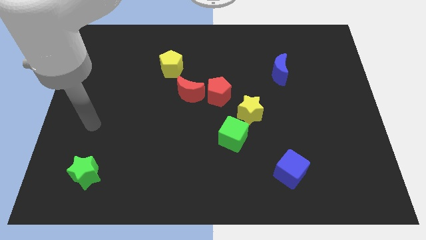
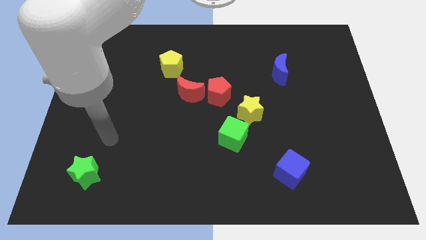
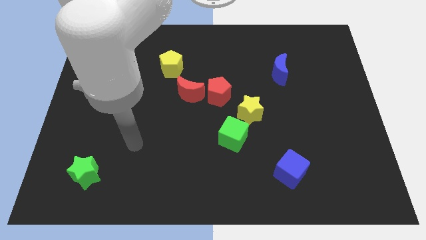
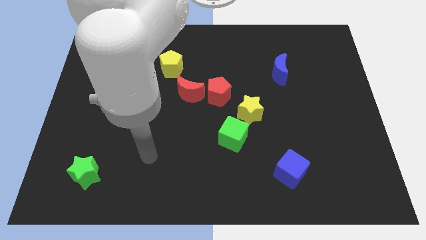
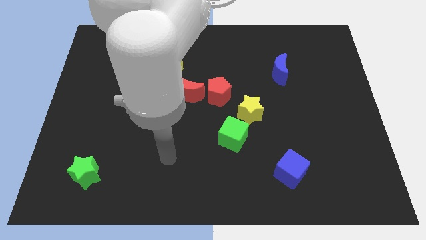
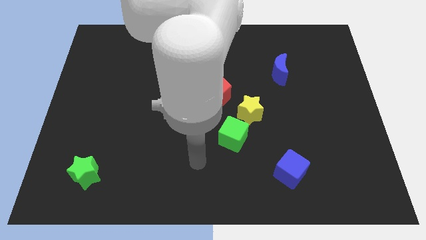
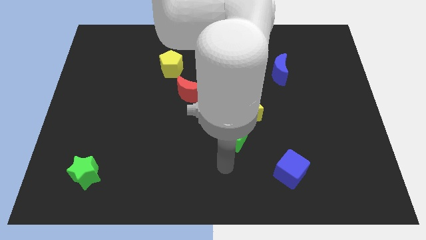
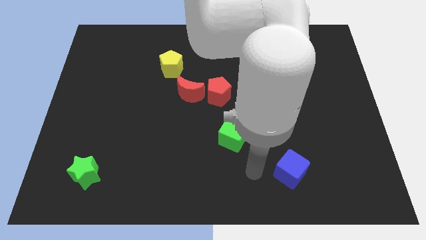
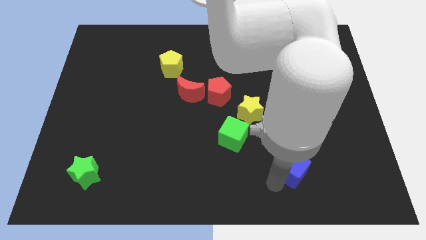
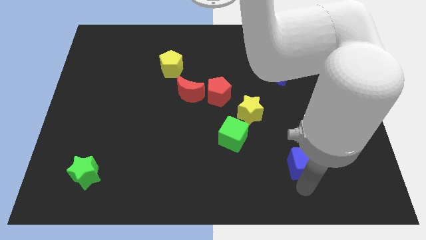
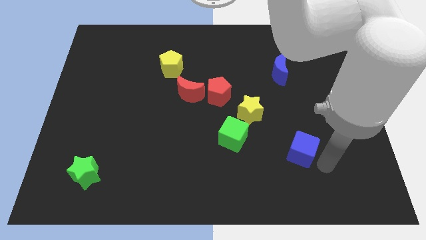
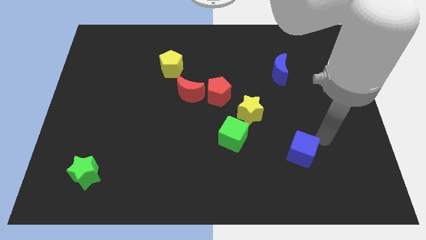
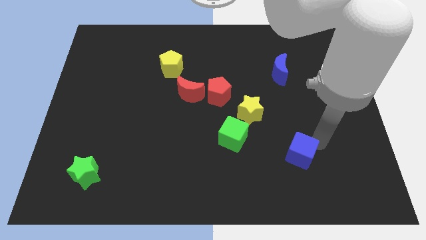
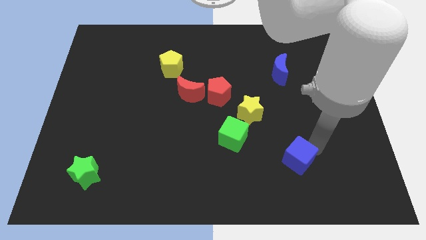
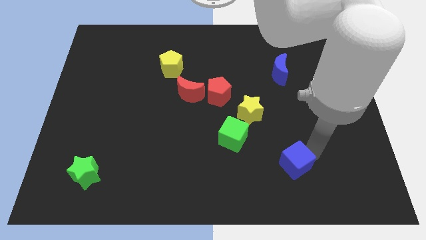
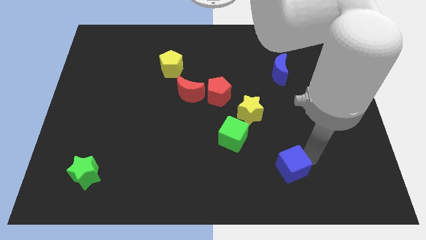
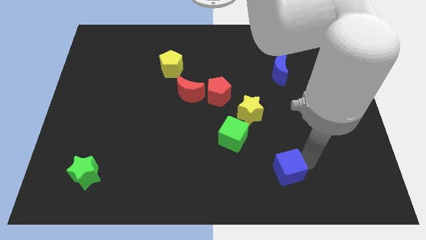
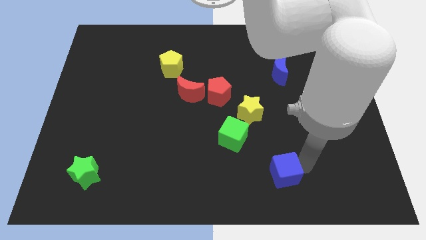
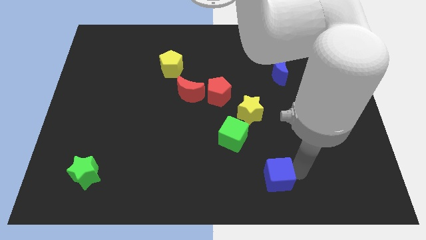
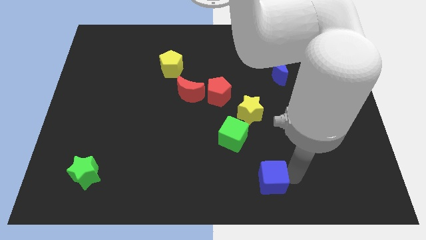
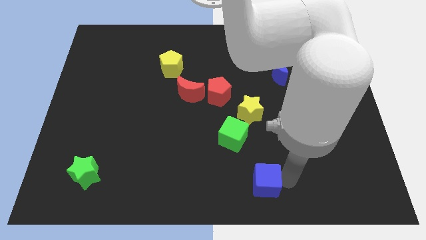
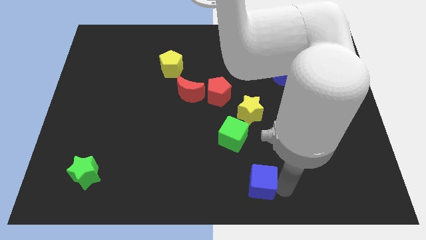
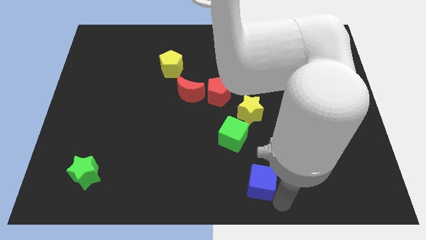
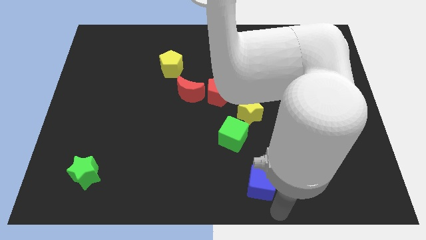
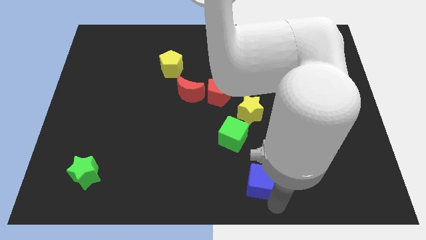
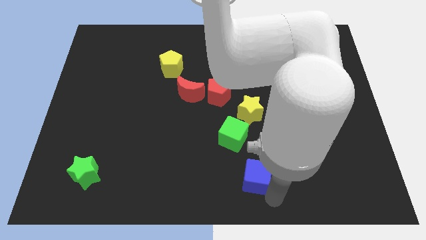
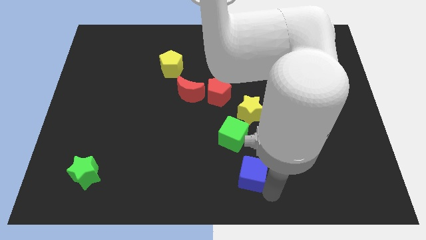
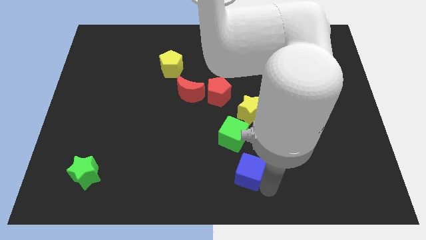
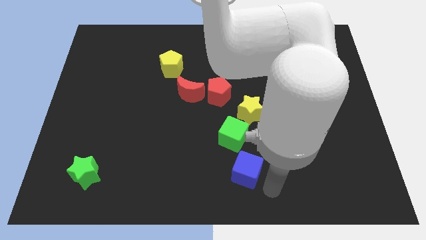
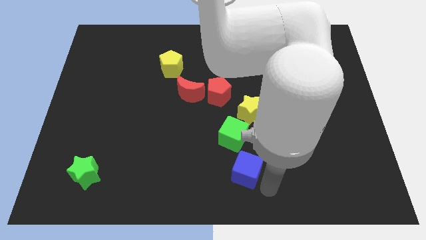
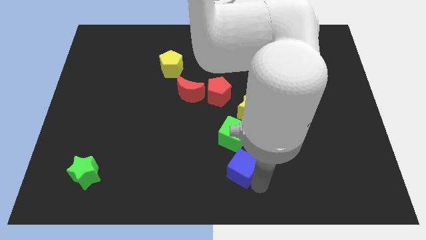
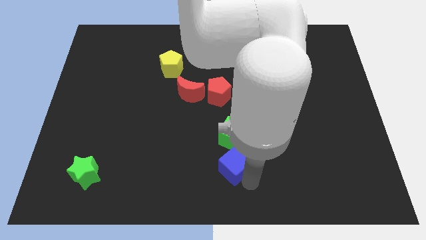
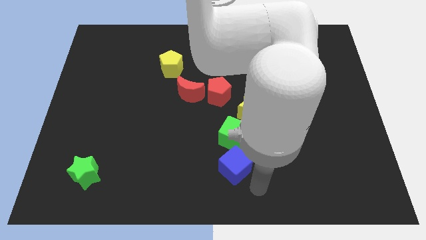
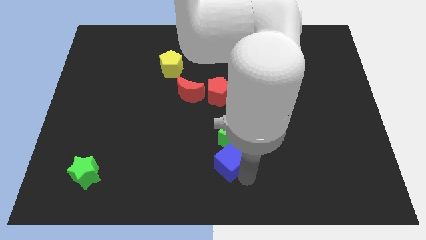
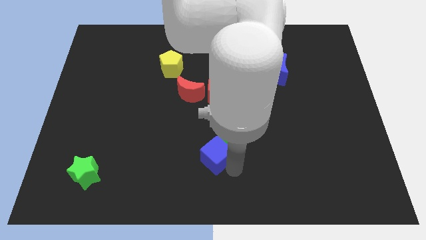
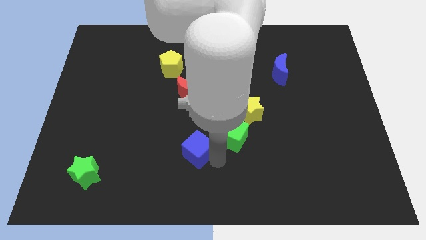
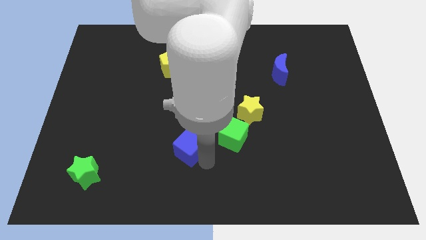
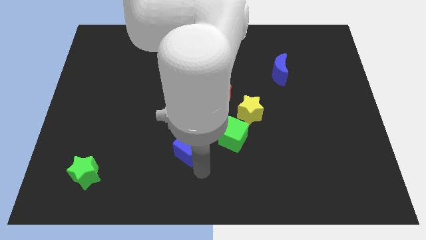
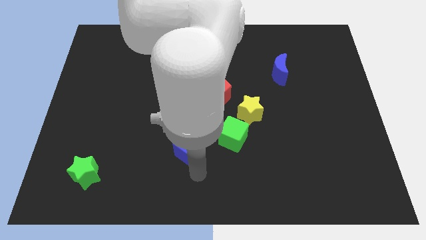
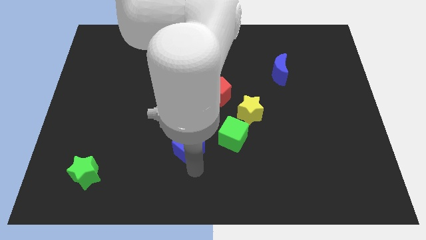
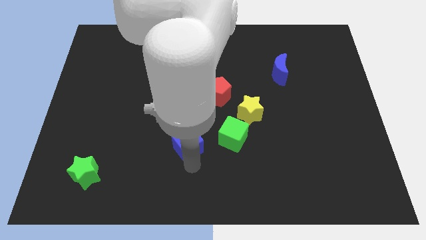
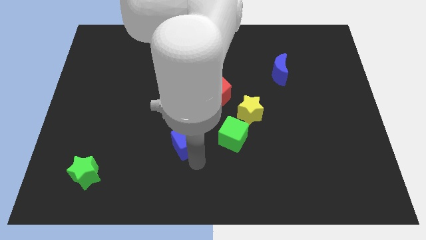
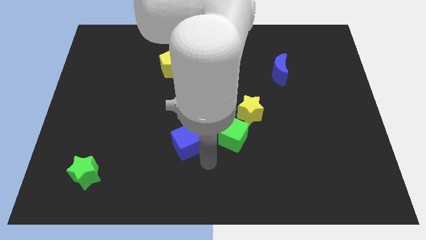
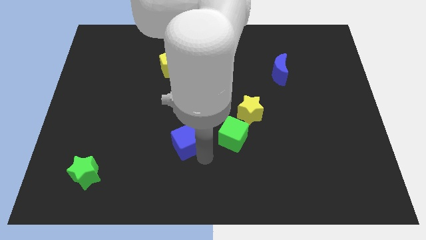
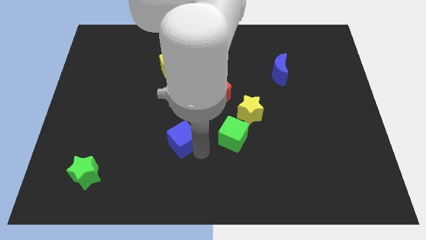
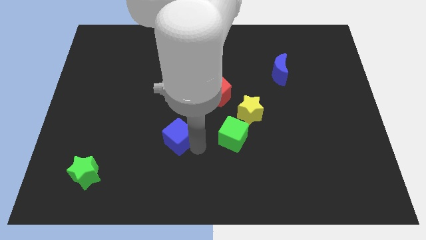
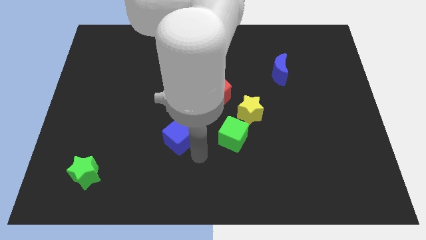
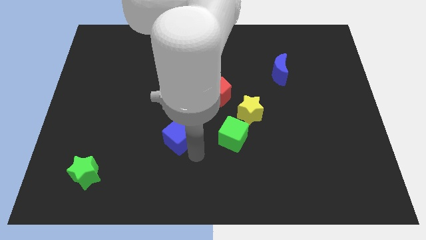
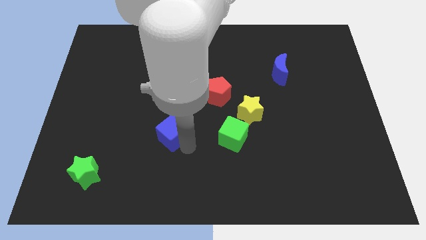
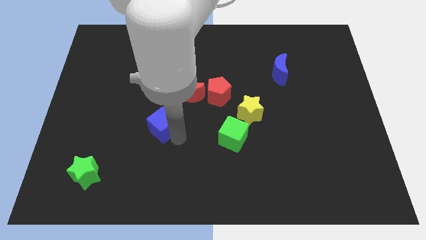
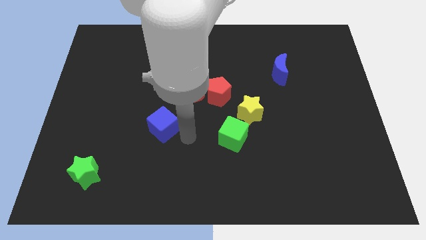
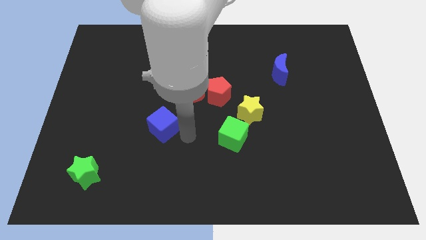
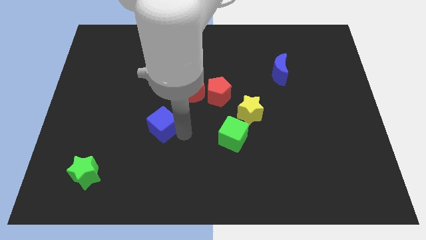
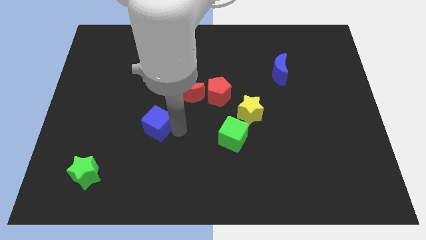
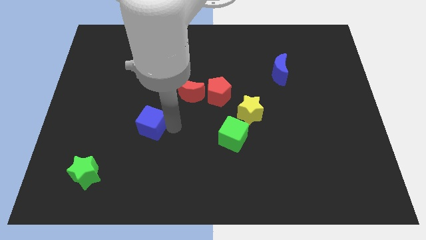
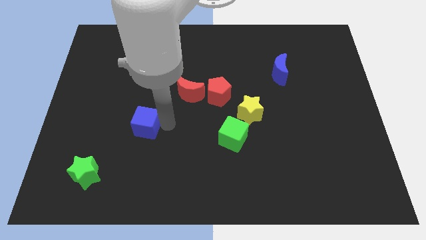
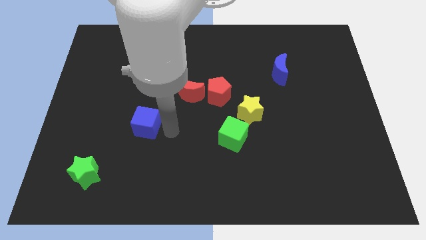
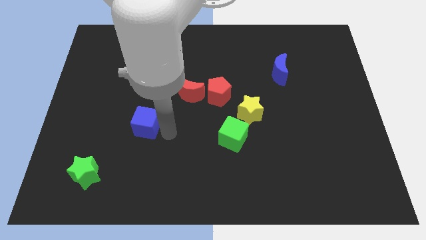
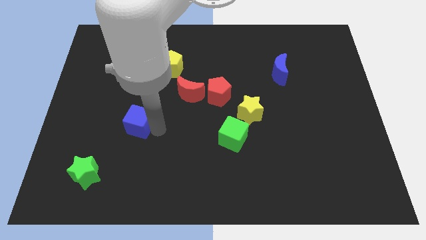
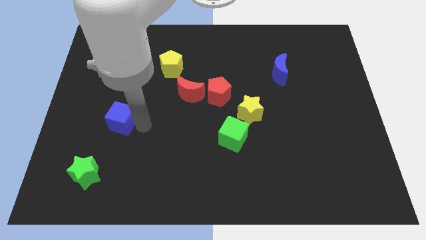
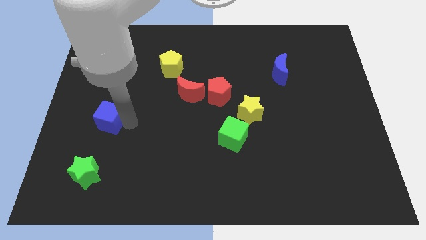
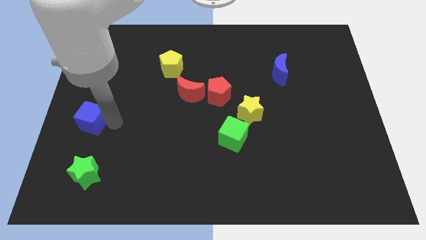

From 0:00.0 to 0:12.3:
slide the blue cube to the left side of the board

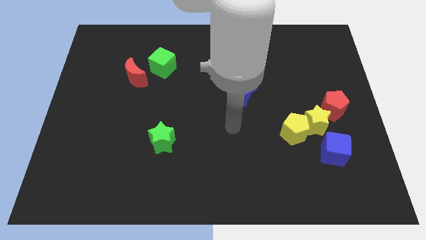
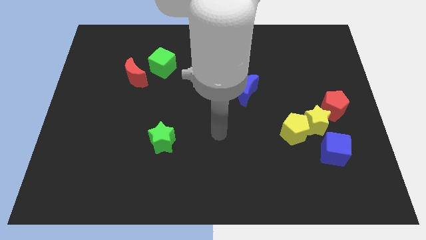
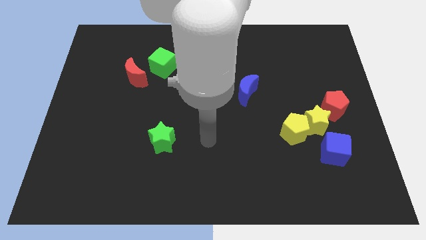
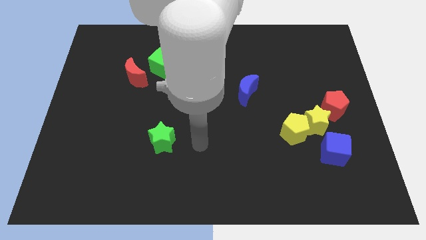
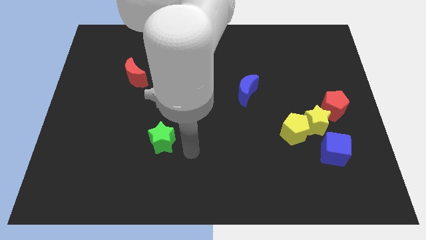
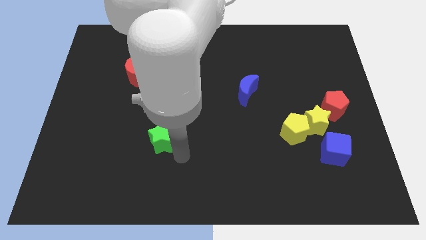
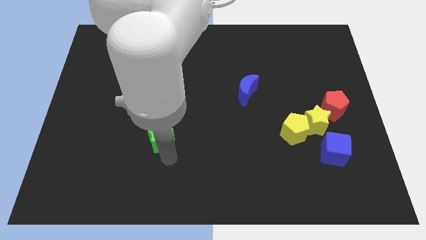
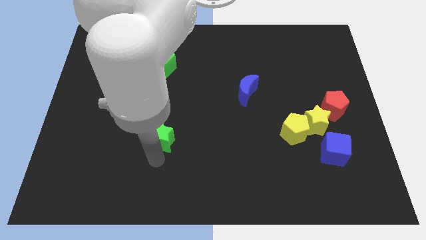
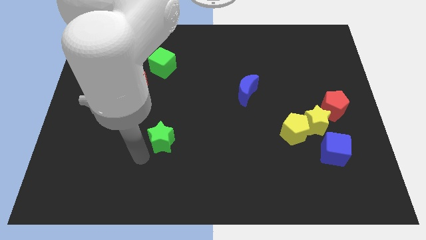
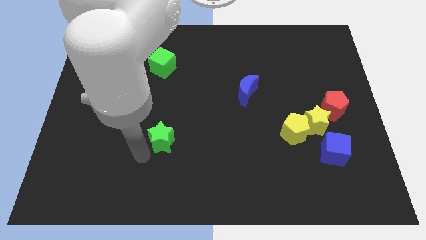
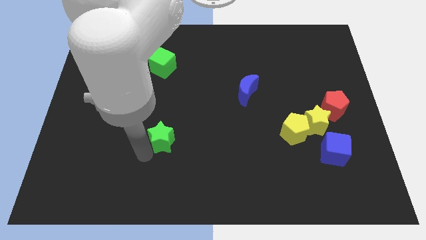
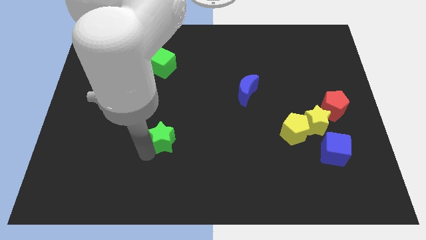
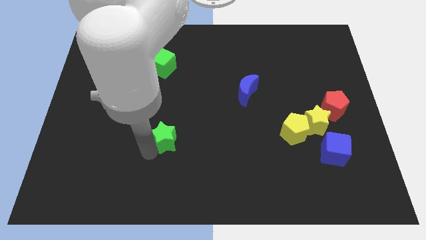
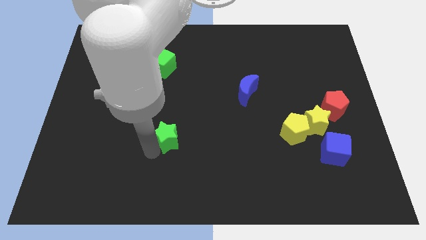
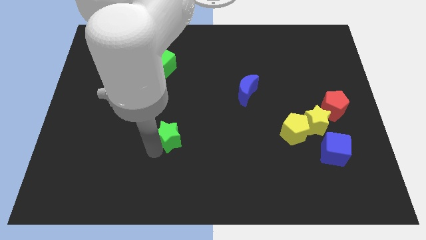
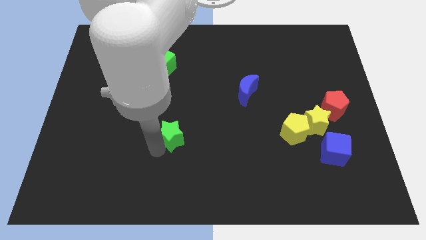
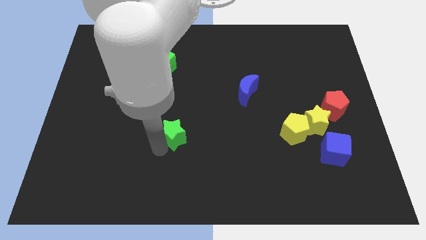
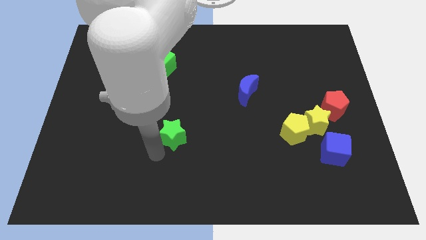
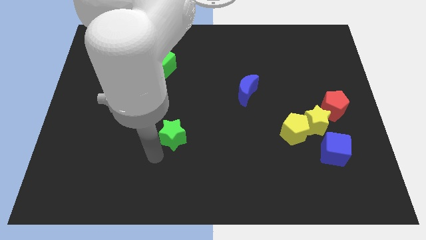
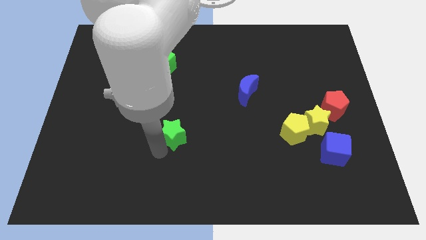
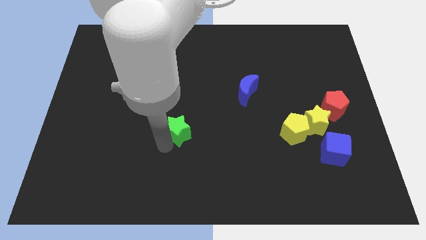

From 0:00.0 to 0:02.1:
push the green star to the middle
